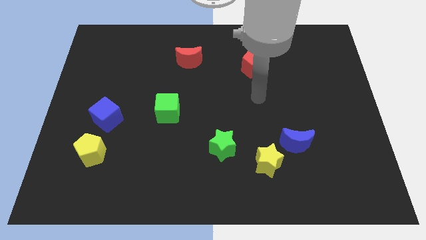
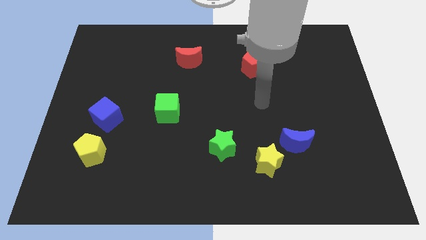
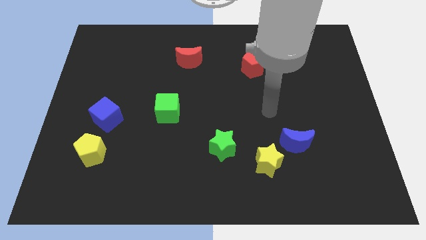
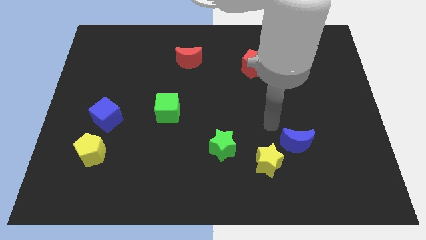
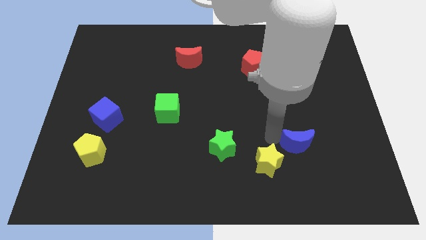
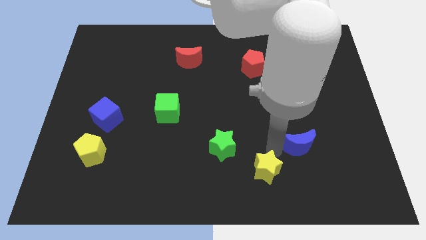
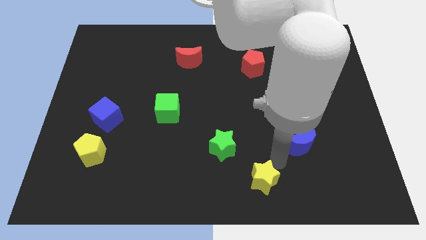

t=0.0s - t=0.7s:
move the blue moon away from the yellow star

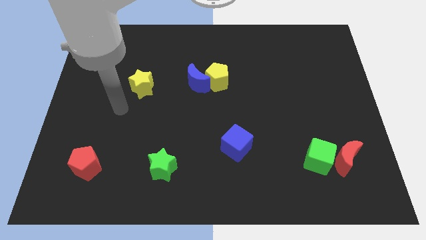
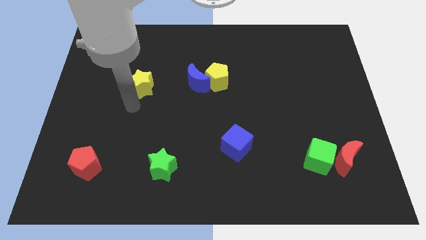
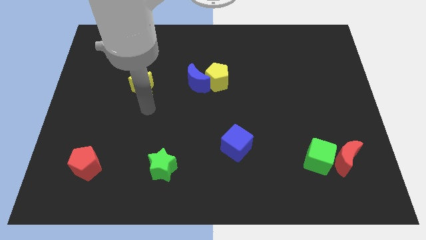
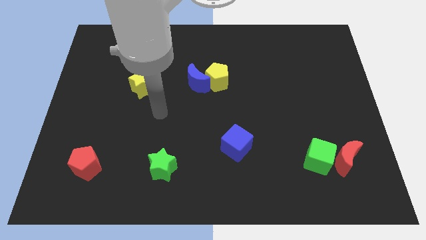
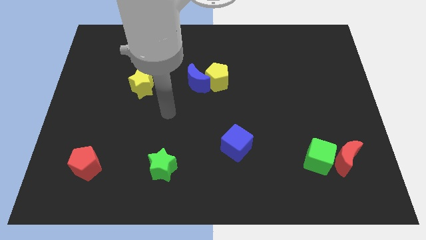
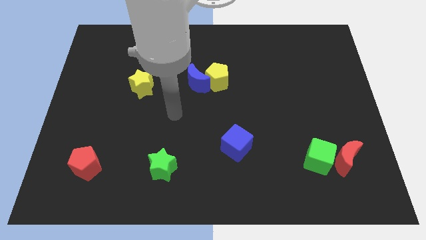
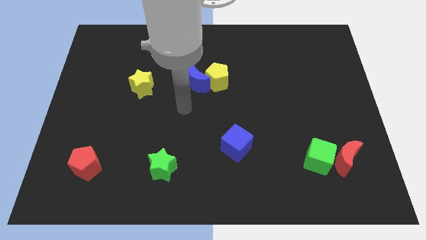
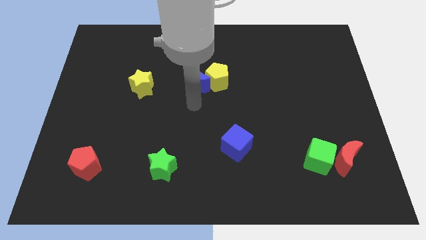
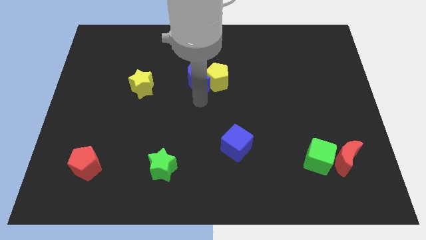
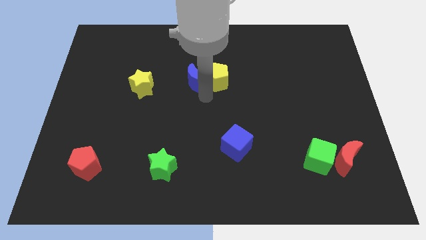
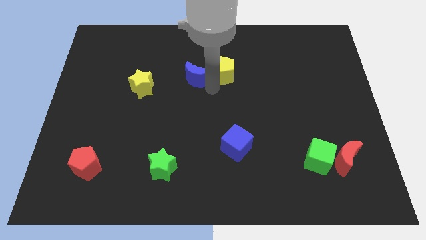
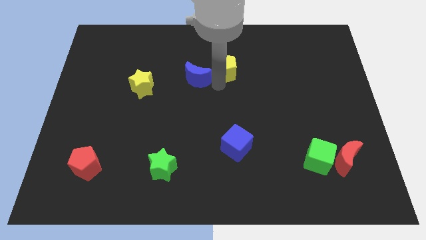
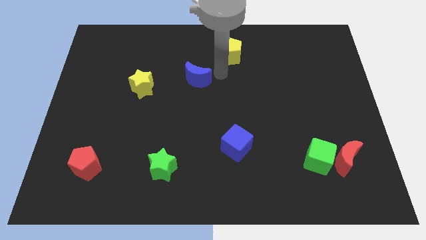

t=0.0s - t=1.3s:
move the blue moon away from the yellow pentagon

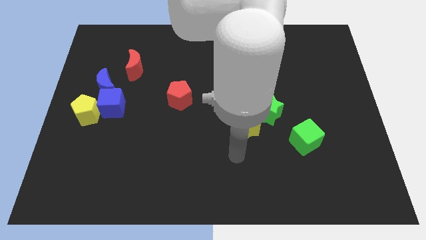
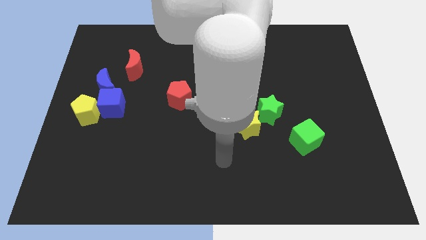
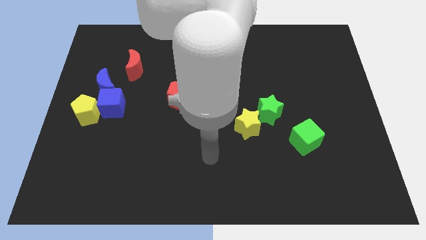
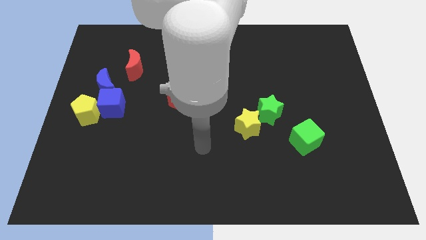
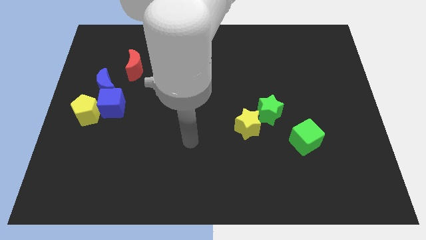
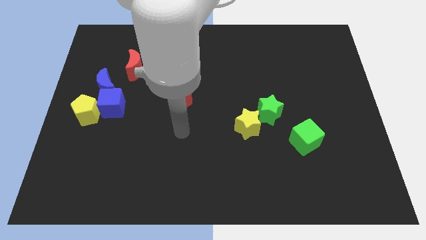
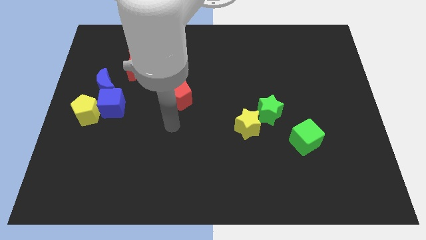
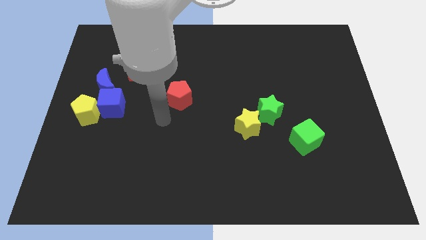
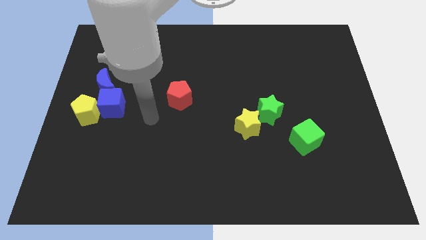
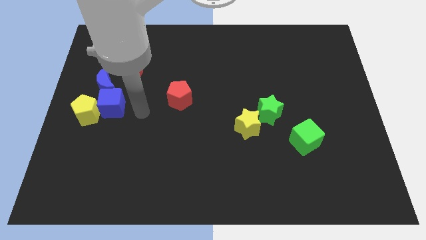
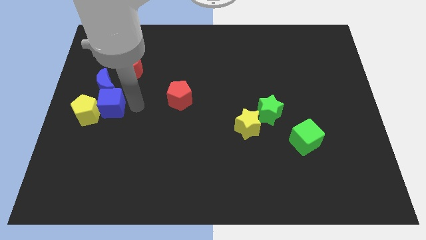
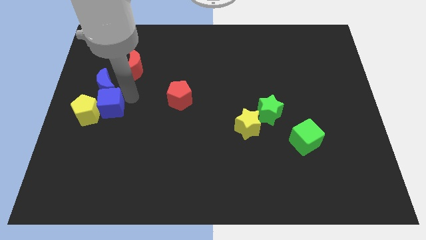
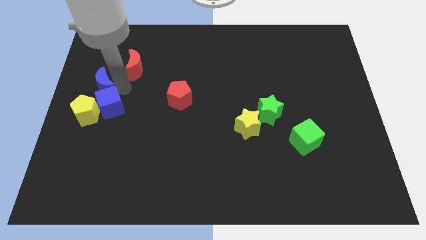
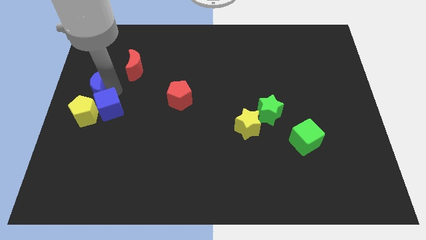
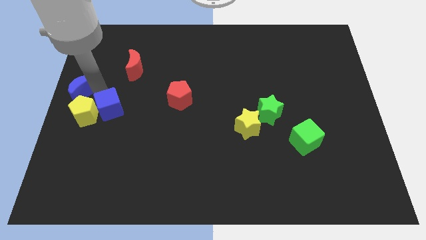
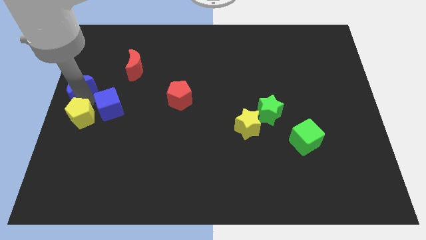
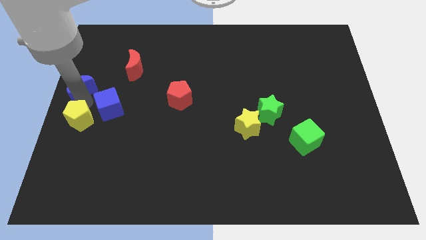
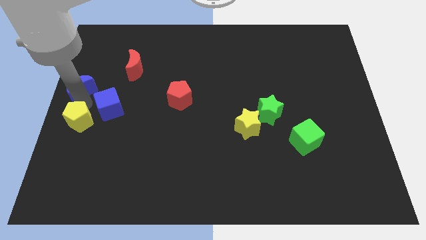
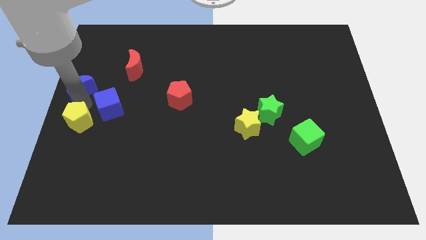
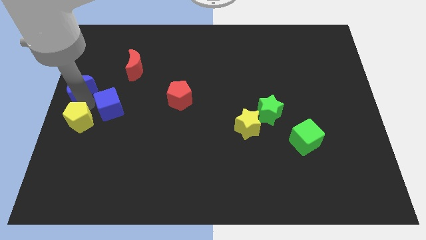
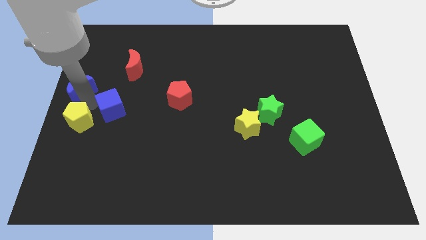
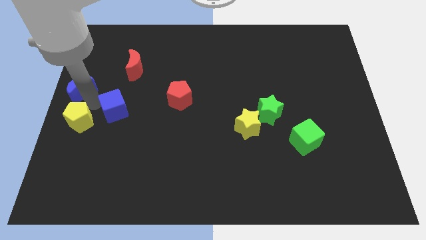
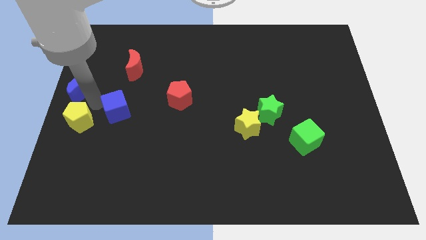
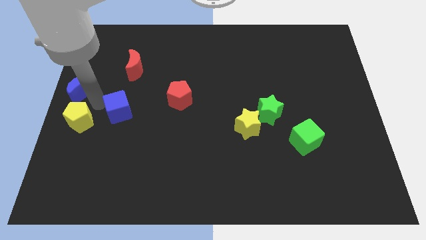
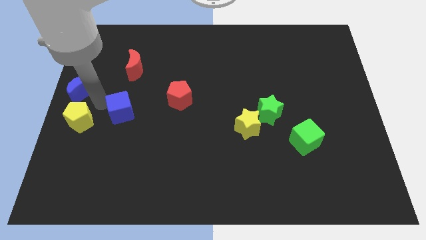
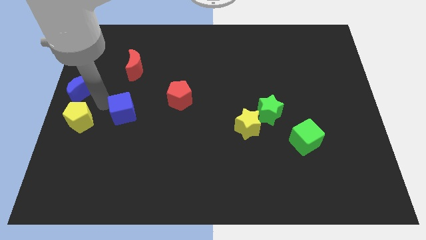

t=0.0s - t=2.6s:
move the blue cube away from the yellow pentagon and blue moon

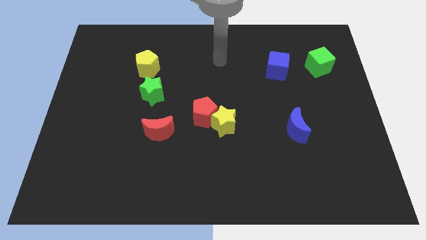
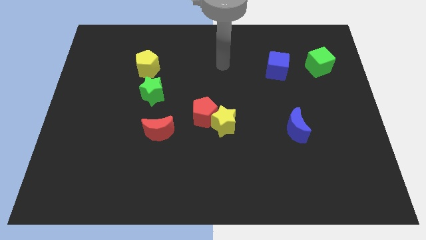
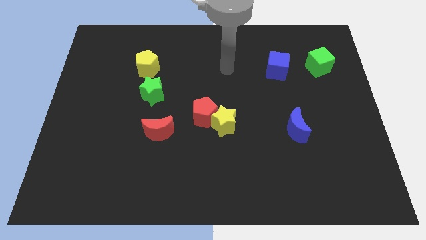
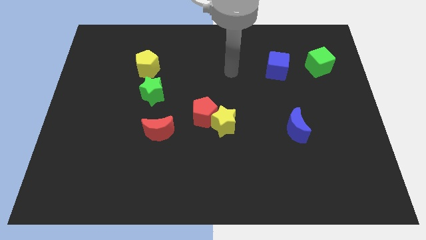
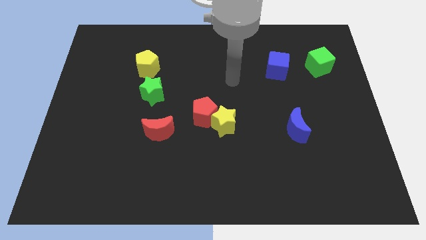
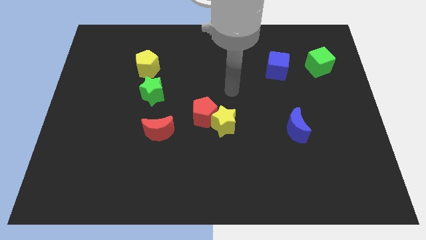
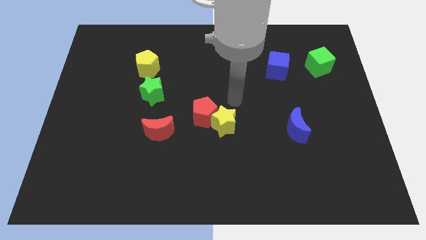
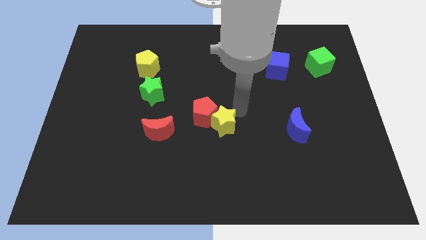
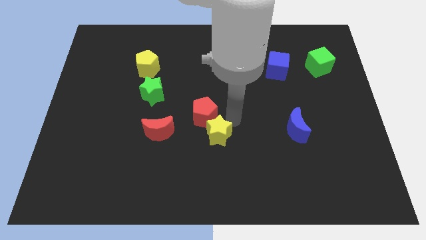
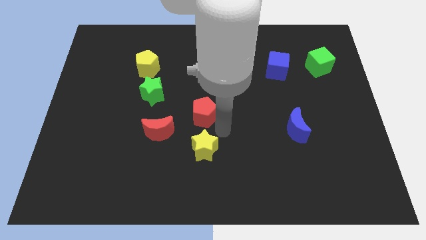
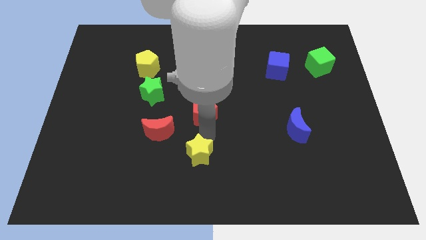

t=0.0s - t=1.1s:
move the red pentagon away from the yellow star

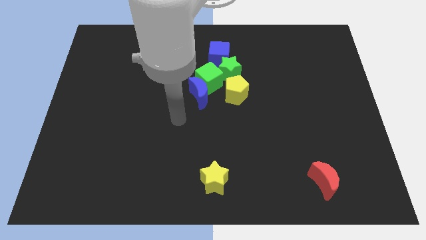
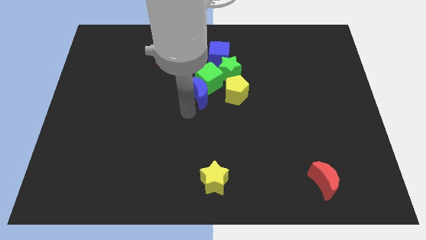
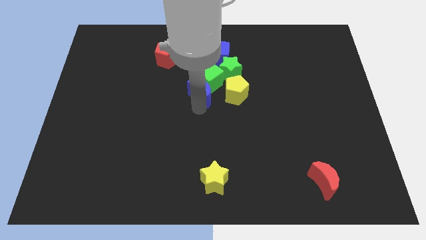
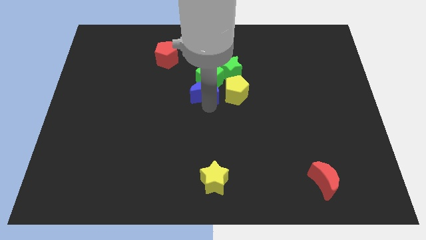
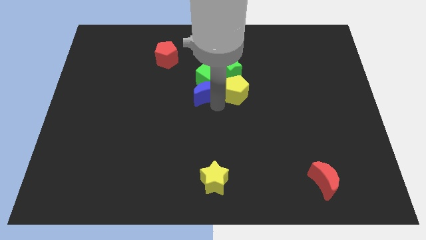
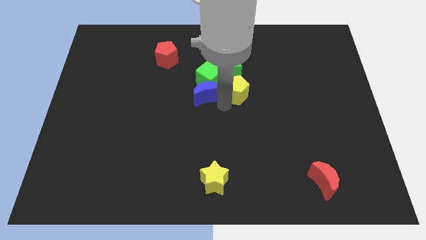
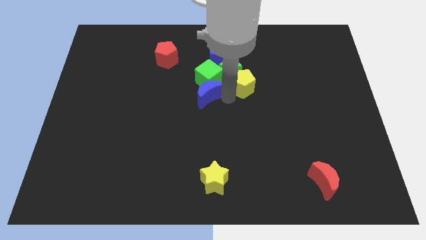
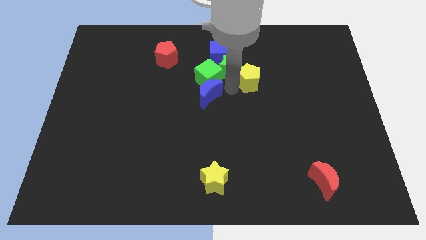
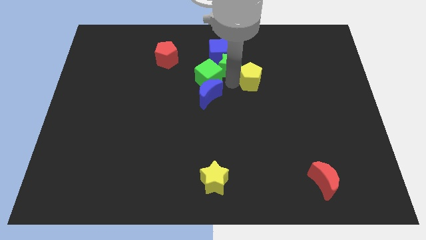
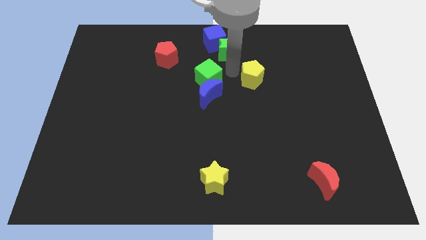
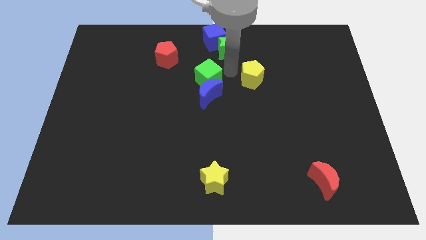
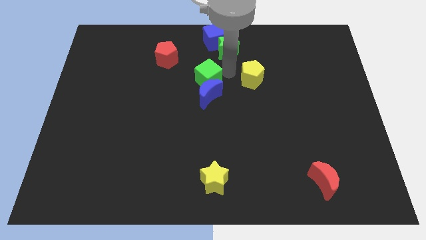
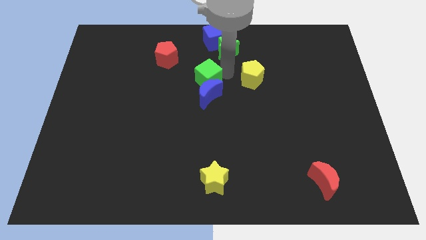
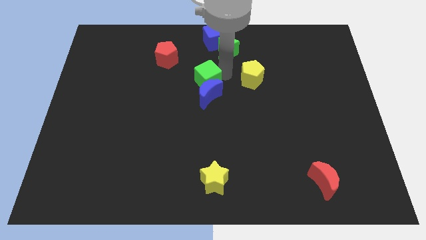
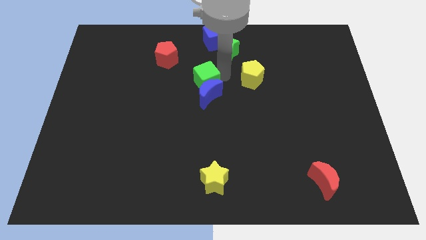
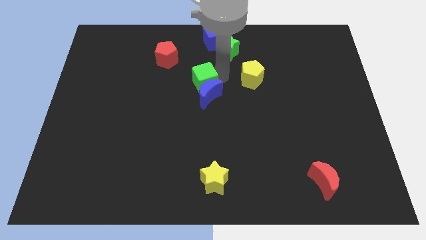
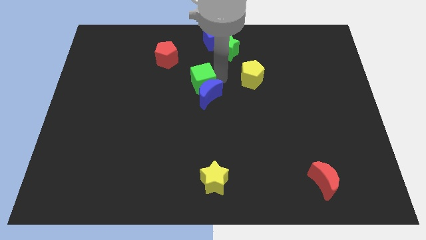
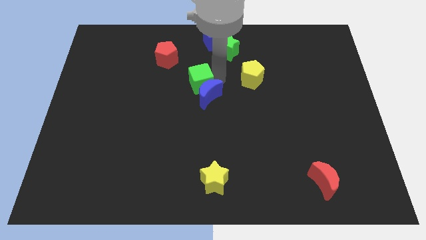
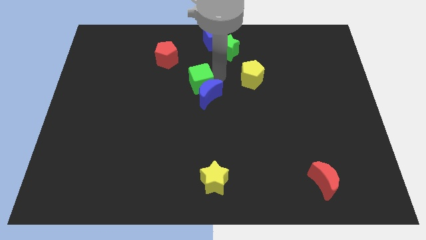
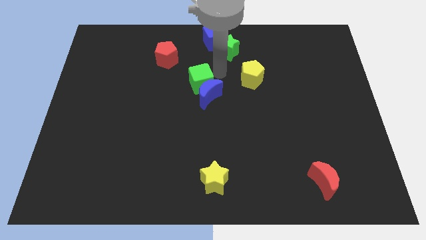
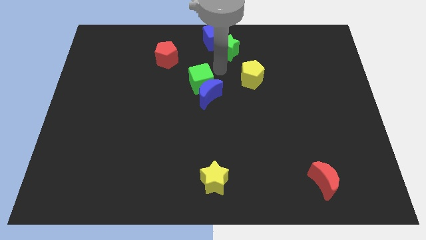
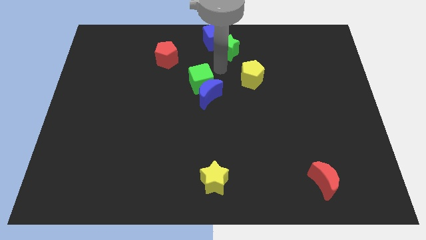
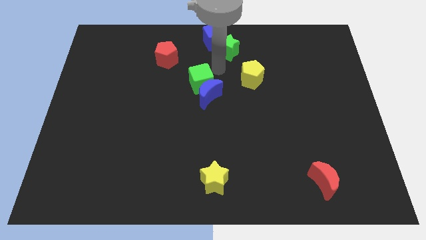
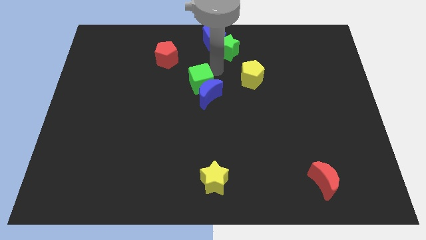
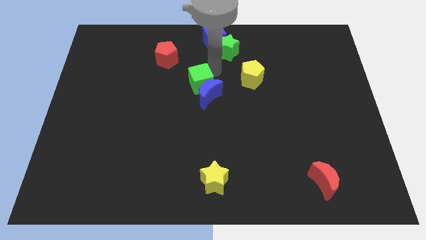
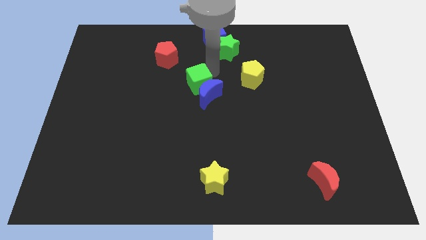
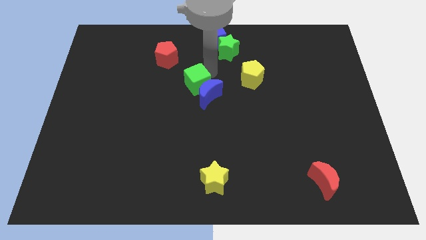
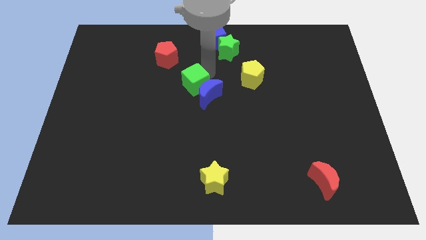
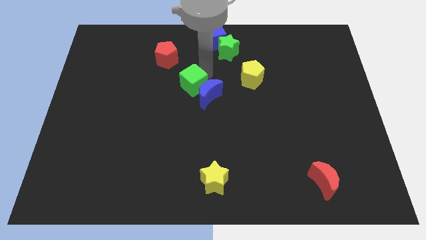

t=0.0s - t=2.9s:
separate the green cube from the group of blocks

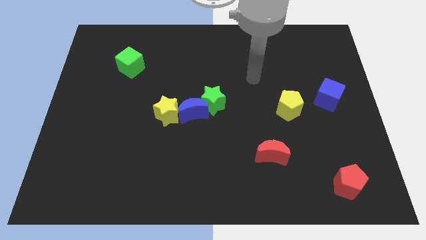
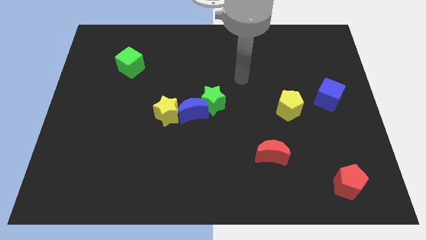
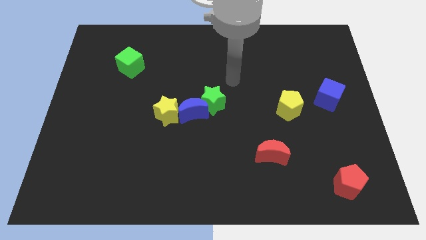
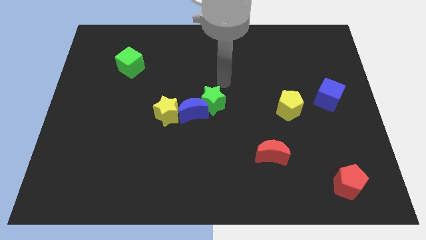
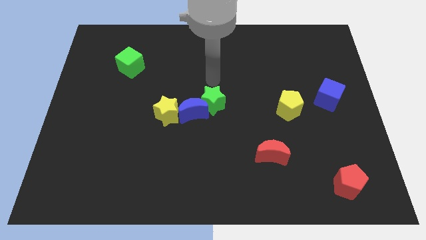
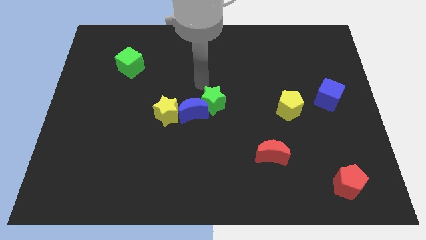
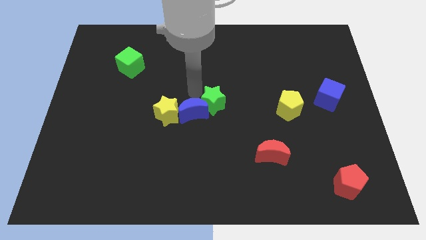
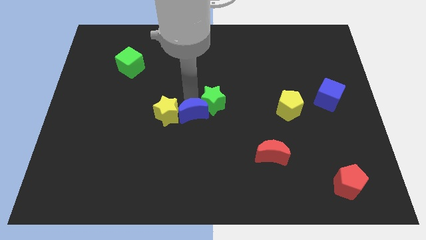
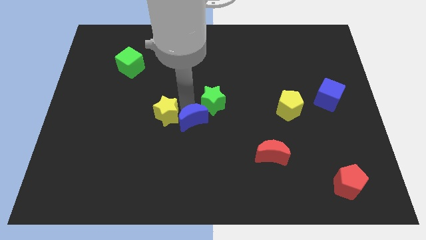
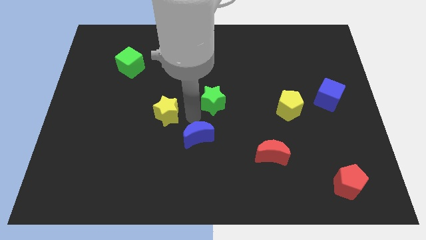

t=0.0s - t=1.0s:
move the green star away from the blue moon
